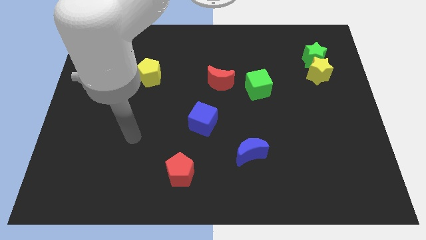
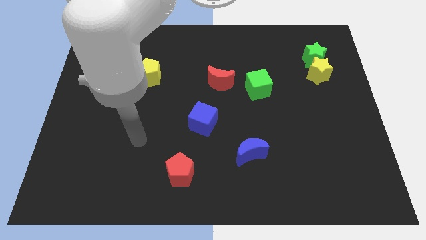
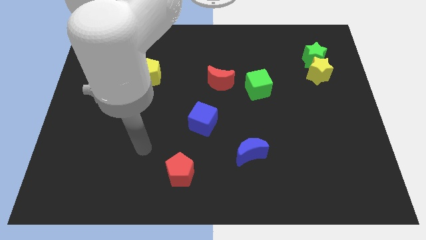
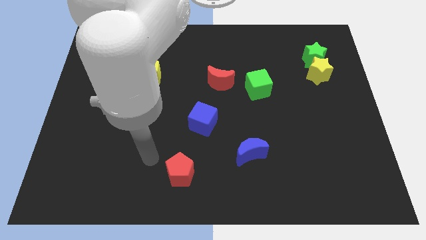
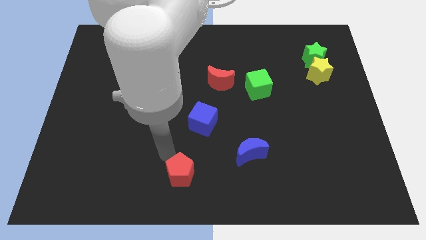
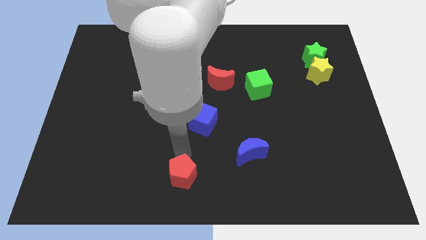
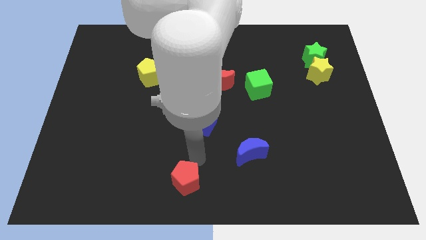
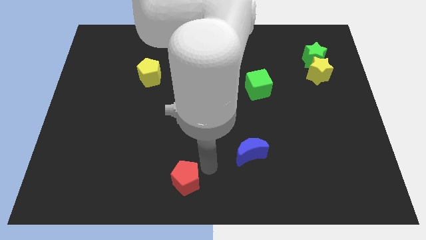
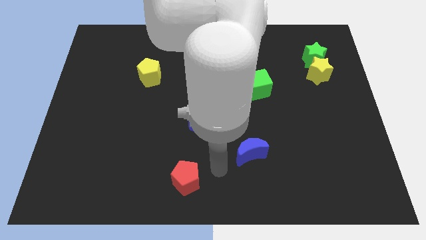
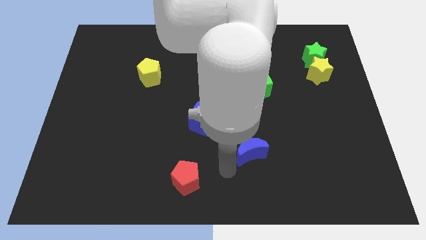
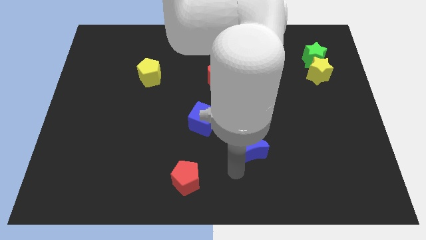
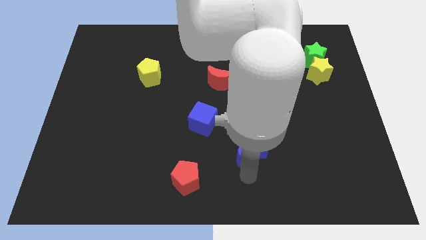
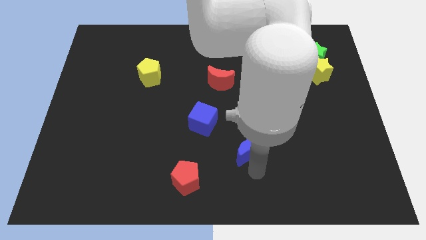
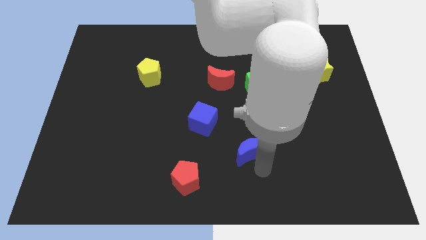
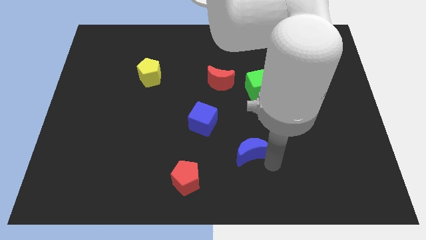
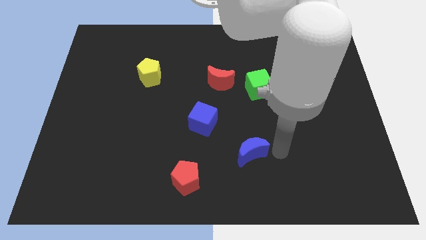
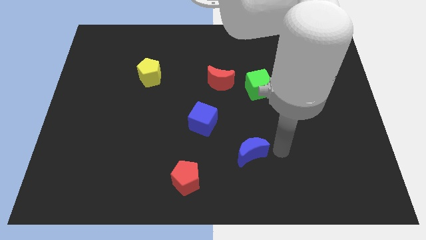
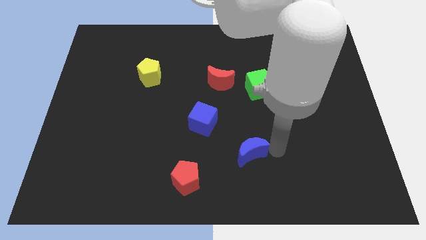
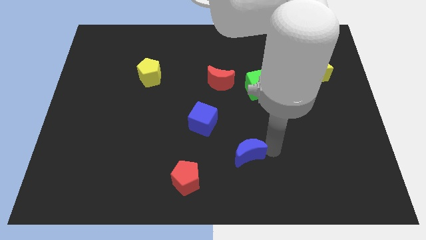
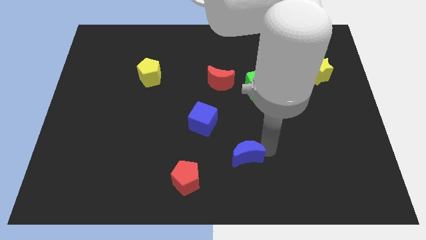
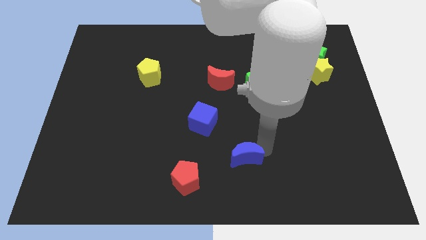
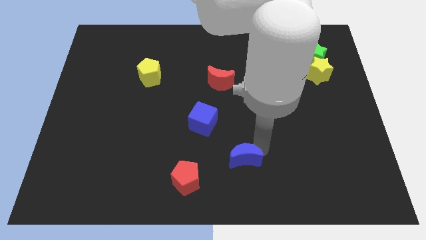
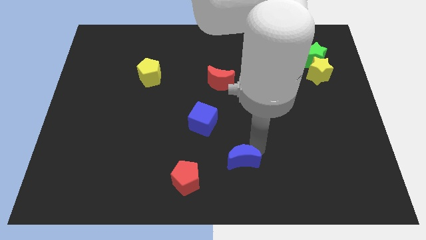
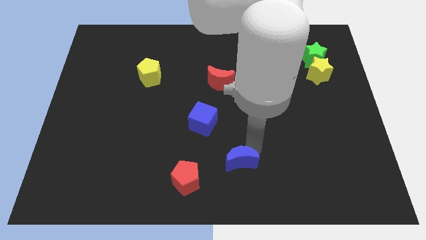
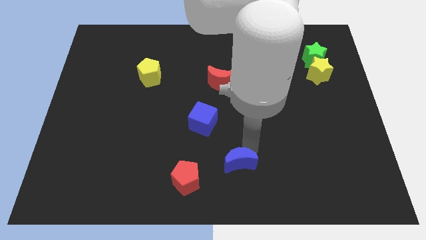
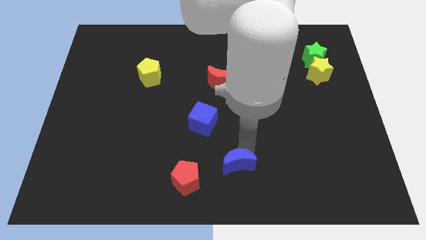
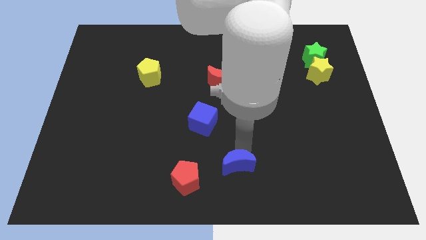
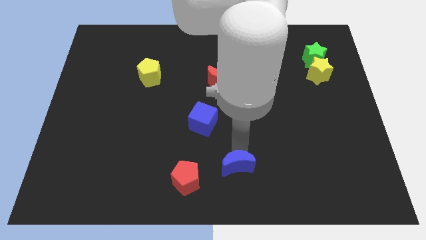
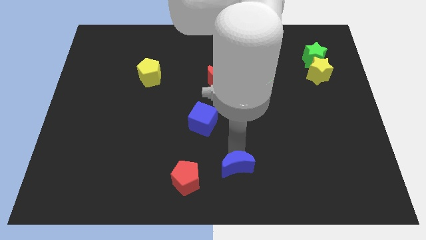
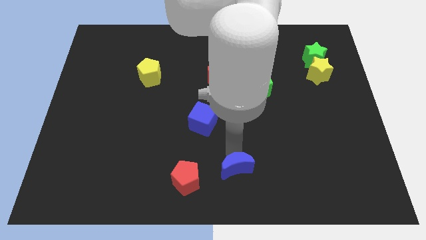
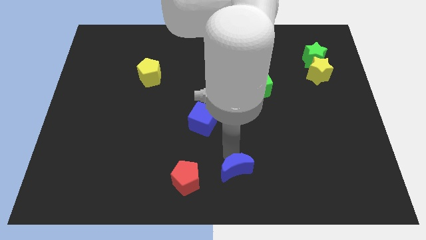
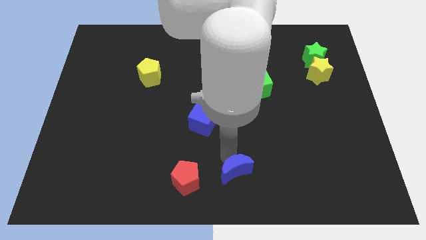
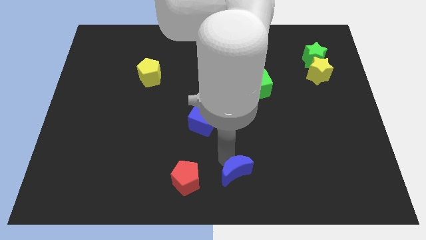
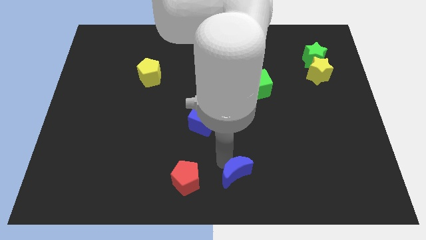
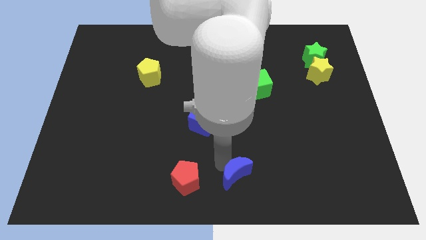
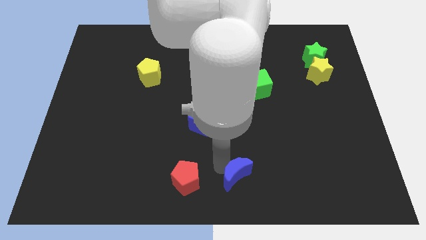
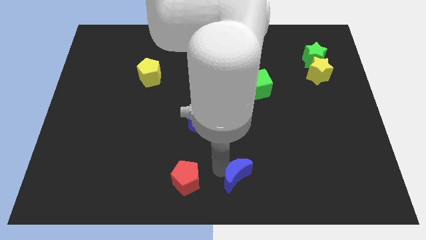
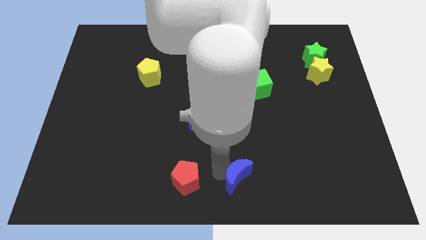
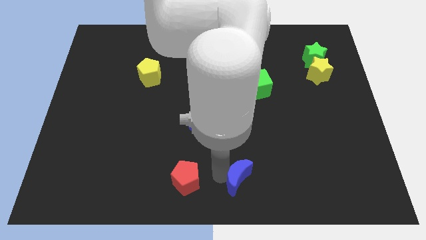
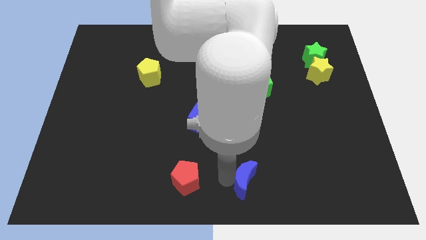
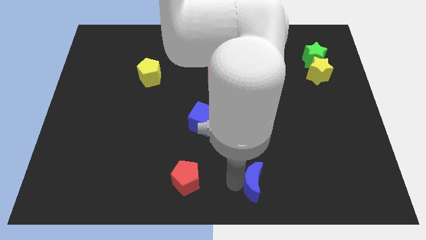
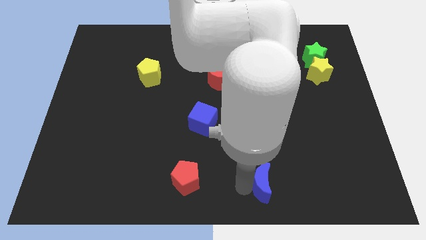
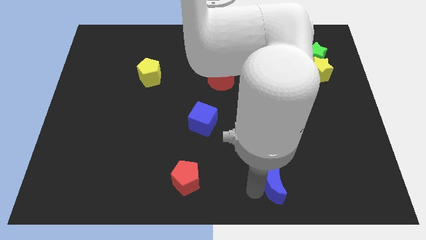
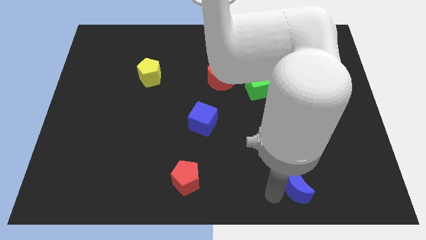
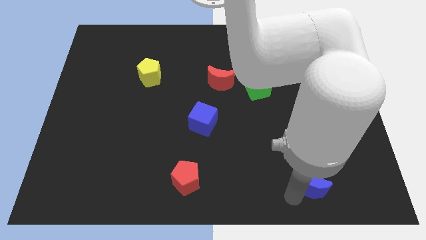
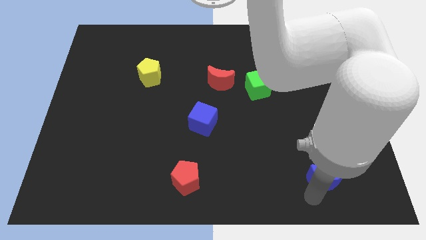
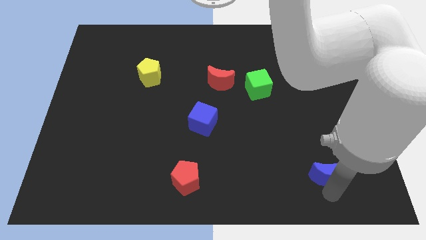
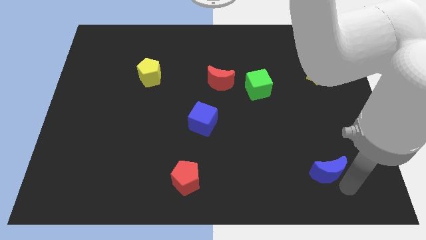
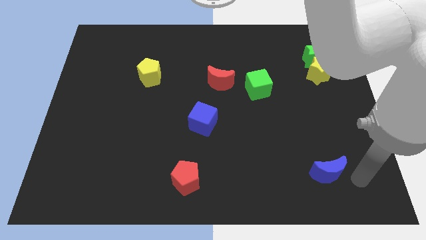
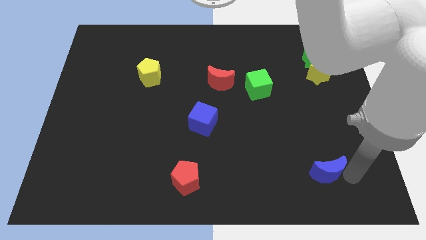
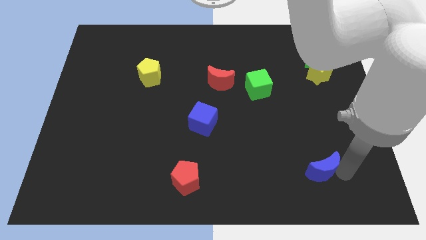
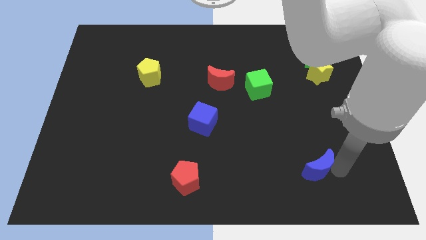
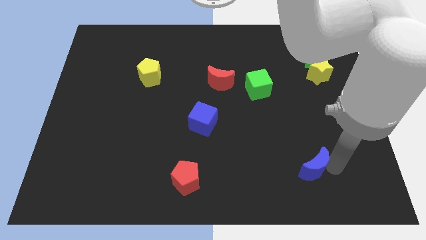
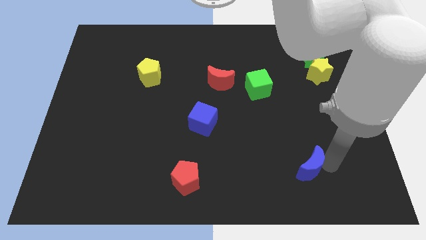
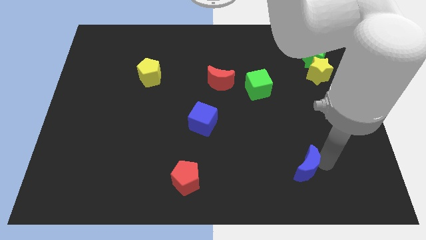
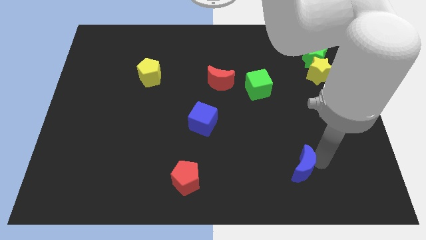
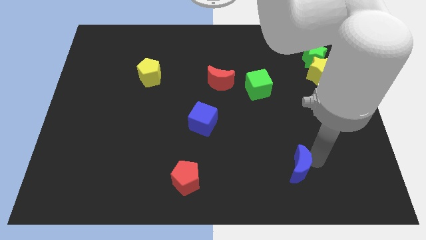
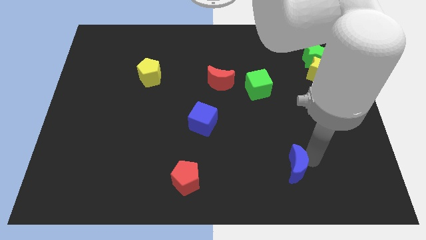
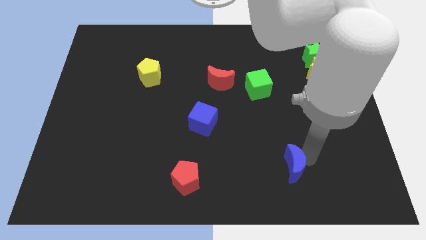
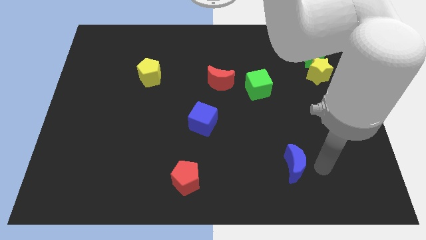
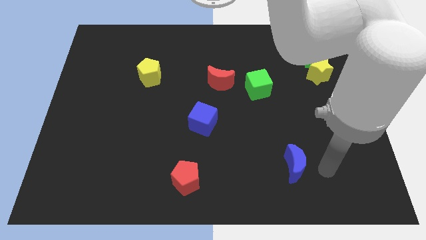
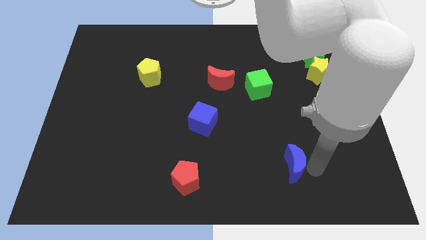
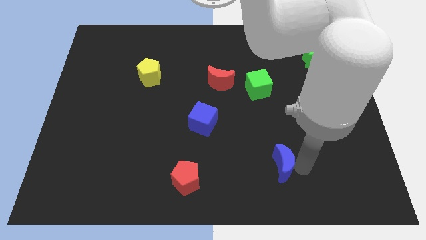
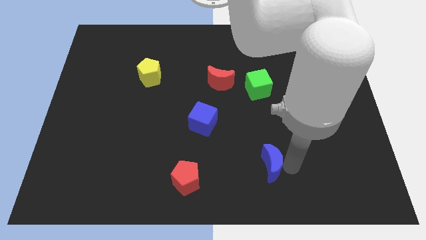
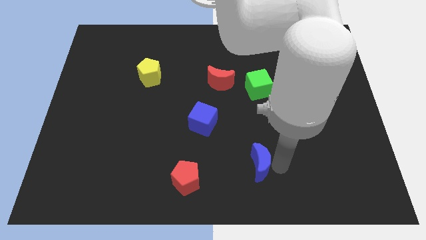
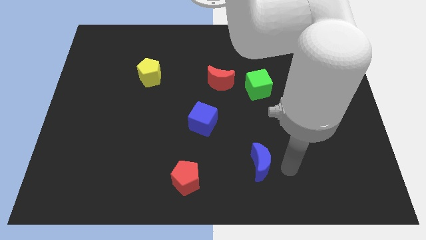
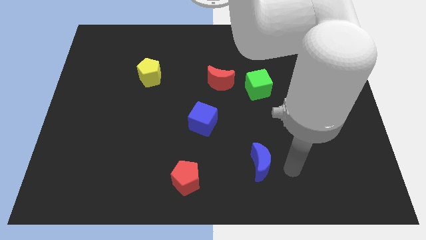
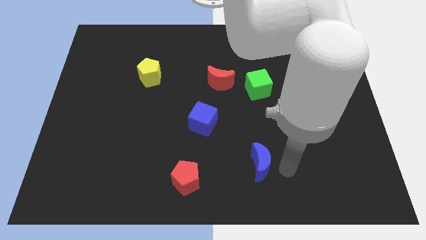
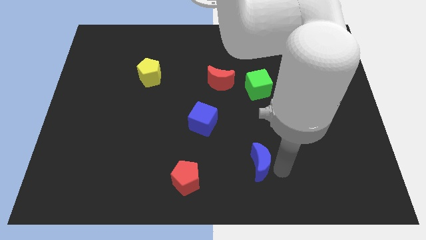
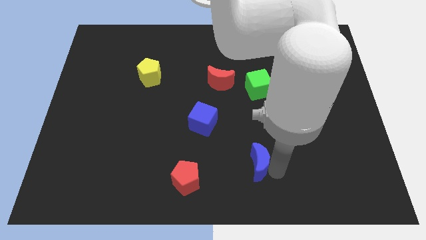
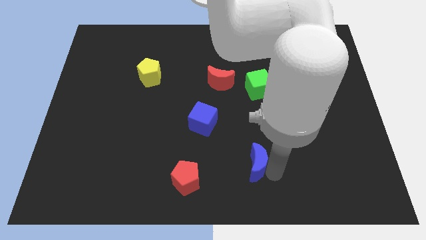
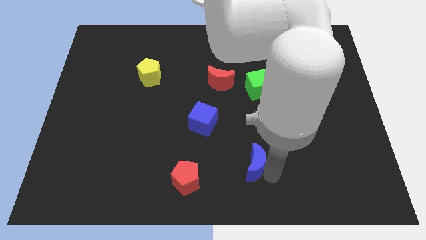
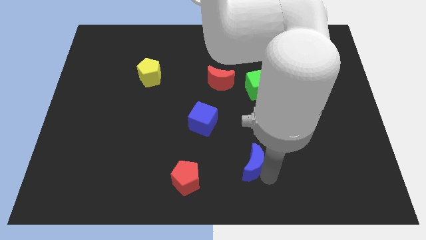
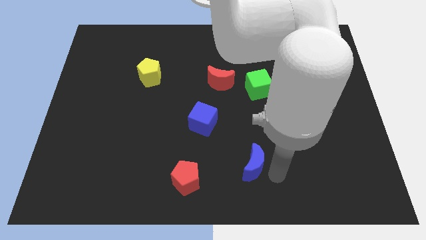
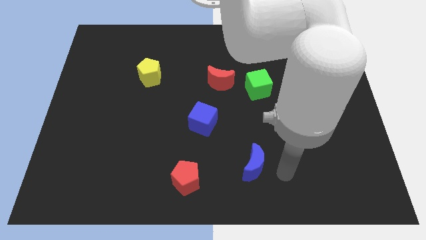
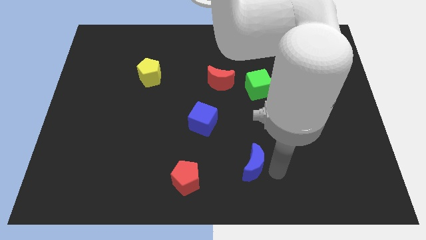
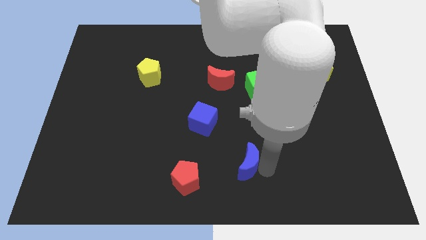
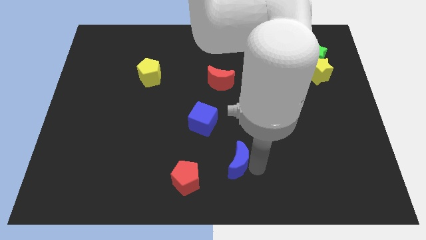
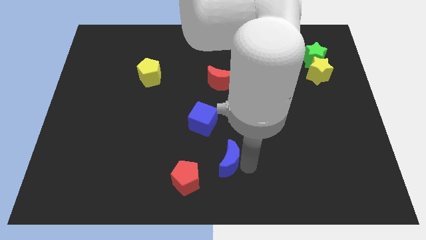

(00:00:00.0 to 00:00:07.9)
move the blue moon to the top right of the red pentagon
